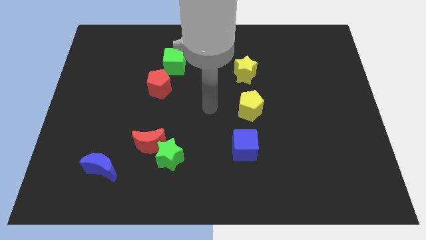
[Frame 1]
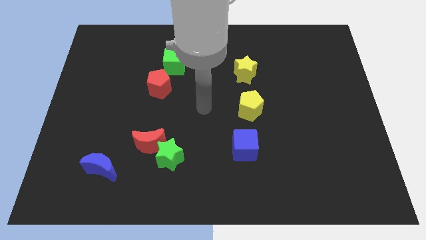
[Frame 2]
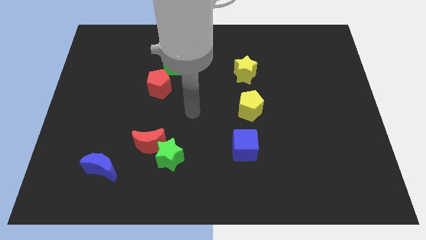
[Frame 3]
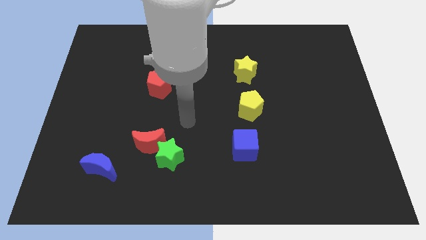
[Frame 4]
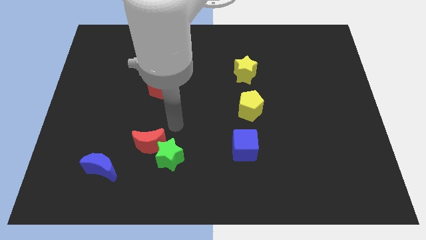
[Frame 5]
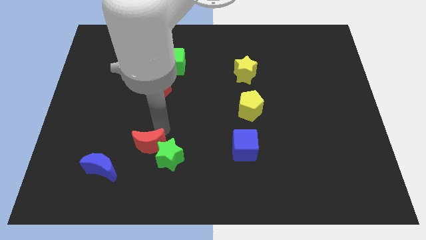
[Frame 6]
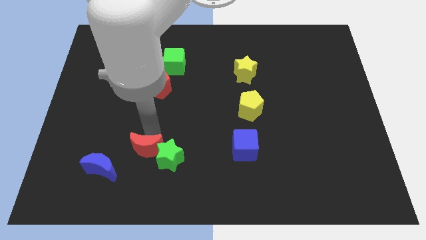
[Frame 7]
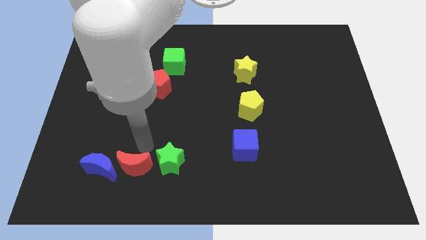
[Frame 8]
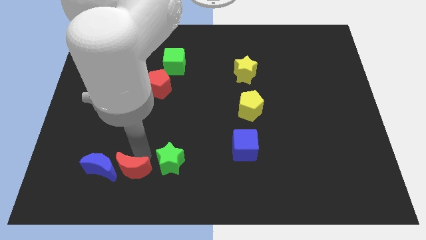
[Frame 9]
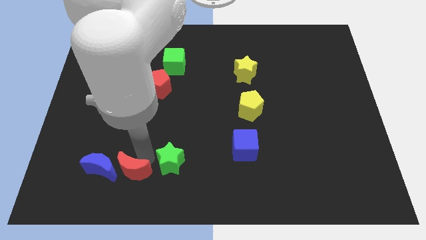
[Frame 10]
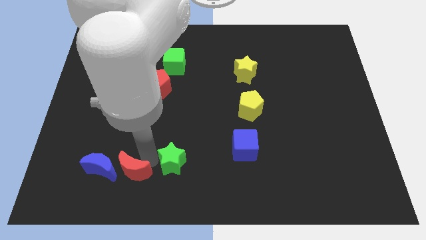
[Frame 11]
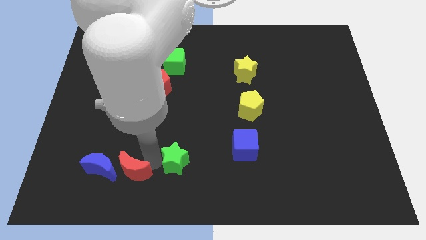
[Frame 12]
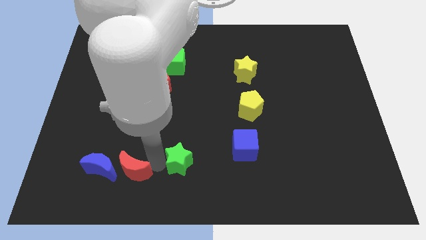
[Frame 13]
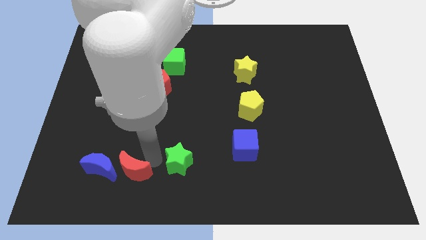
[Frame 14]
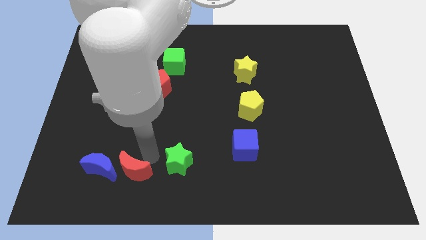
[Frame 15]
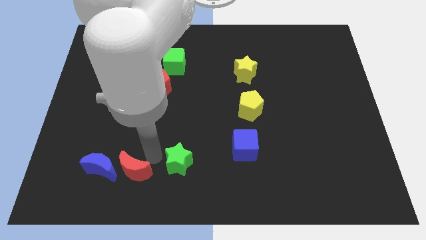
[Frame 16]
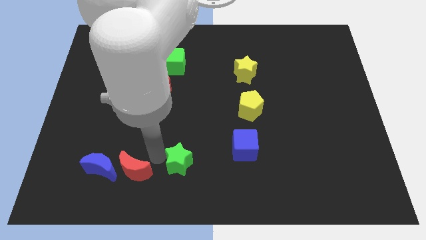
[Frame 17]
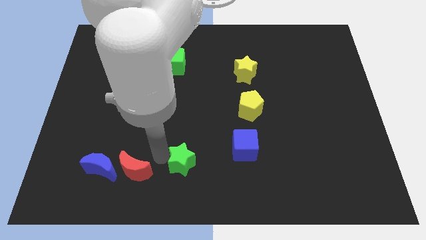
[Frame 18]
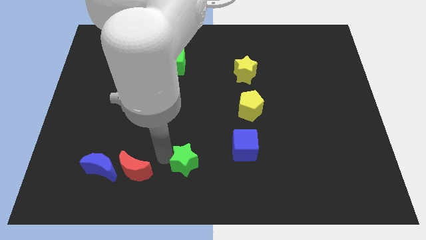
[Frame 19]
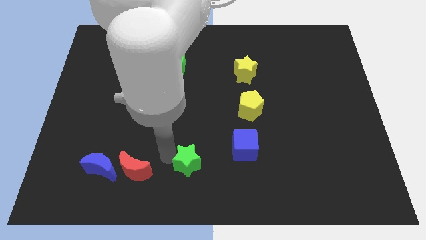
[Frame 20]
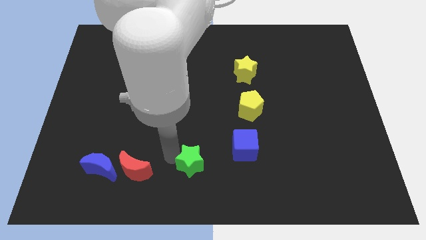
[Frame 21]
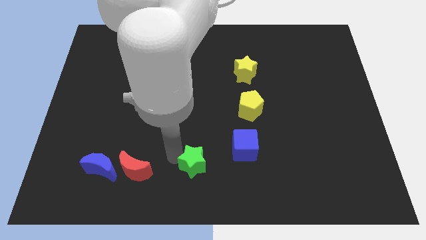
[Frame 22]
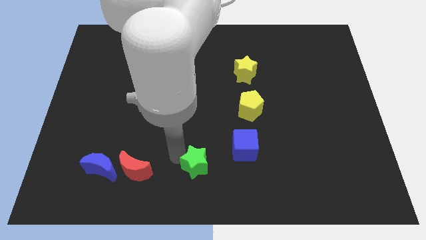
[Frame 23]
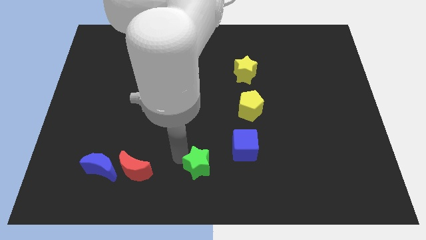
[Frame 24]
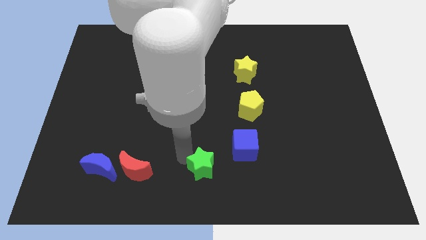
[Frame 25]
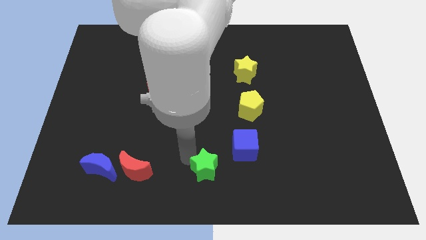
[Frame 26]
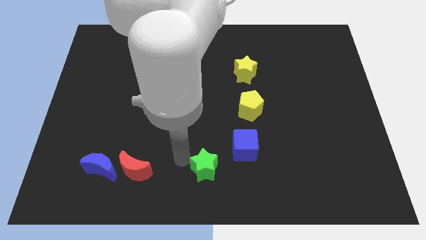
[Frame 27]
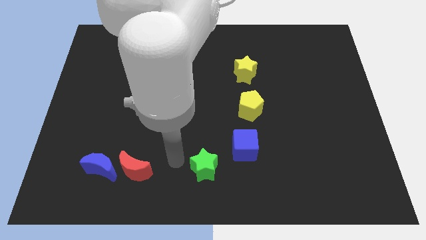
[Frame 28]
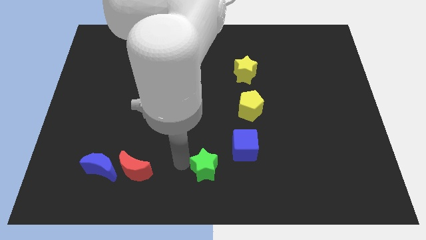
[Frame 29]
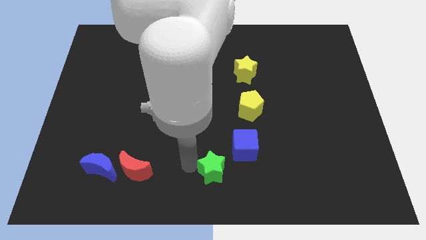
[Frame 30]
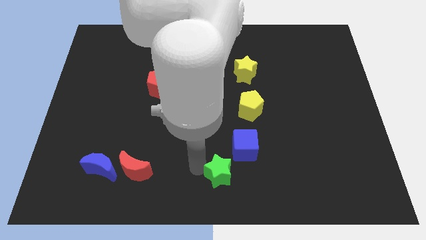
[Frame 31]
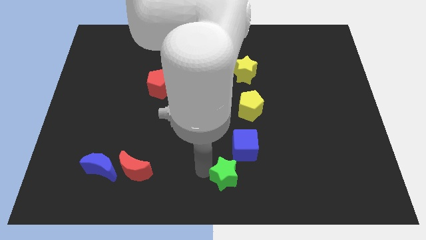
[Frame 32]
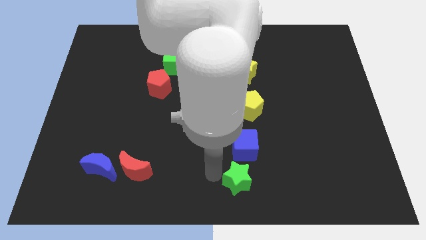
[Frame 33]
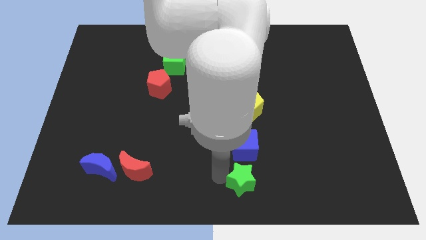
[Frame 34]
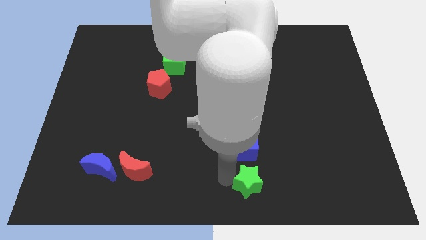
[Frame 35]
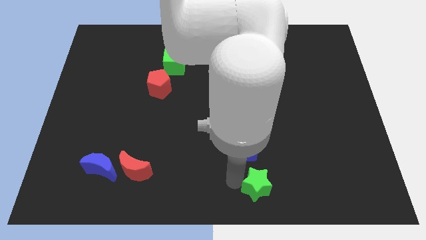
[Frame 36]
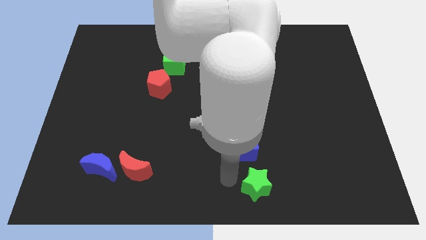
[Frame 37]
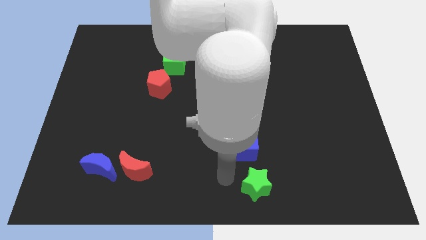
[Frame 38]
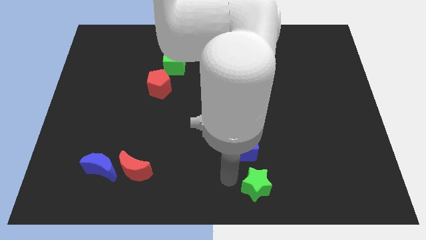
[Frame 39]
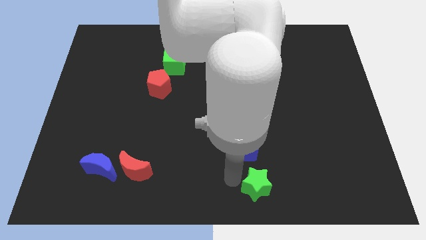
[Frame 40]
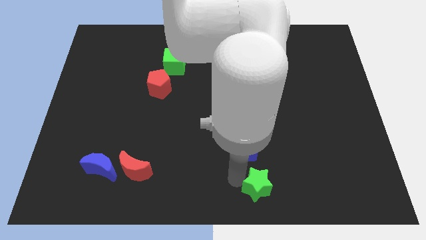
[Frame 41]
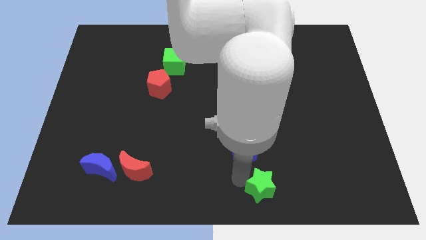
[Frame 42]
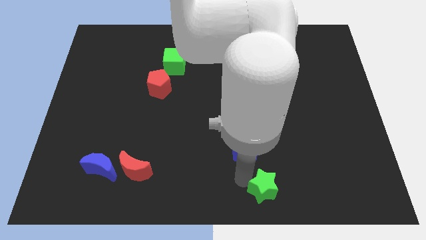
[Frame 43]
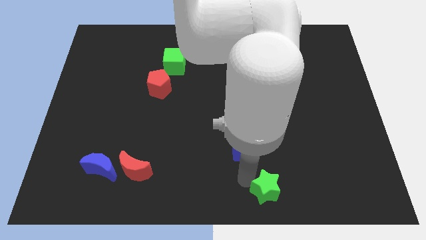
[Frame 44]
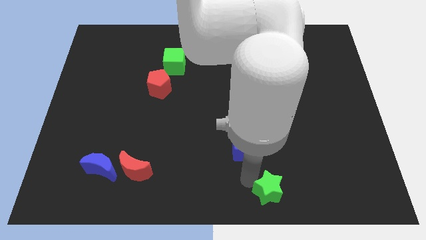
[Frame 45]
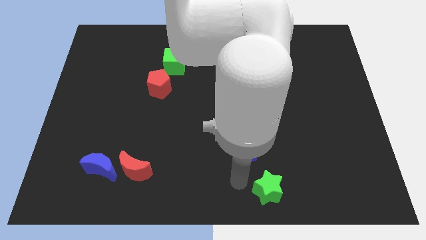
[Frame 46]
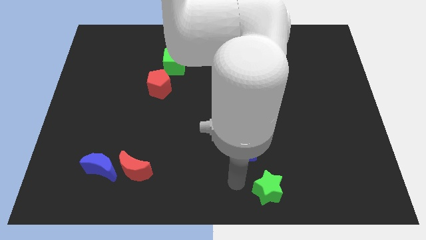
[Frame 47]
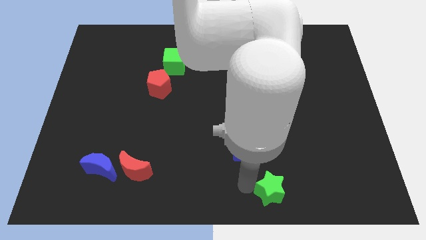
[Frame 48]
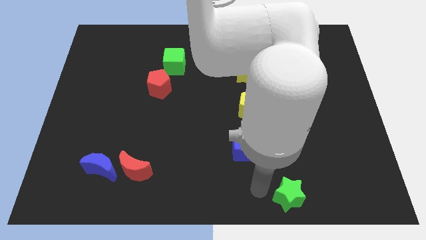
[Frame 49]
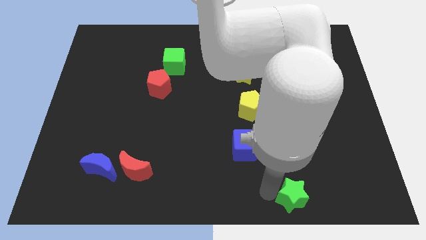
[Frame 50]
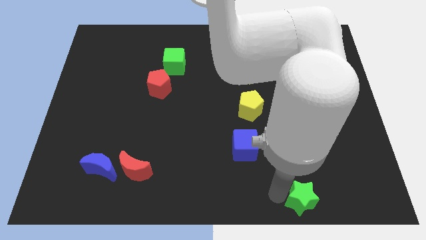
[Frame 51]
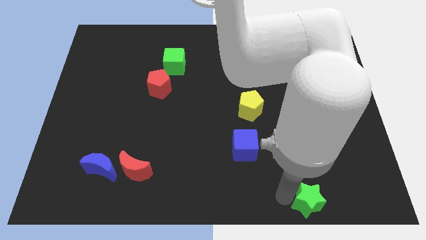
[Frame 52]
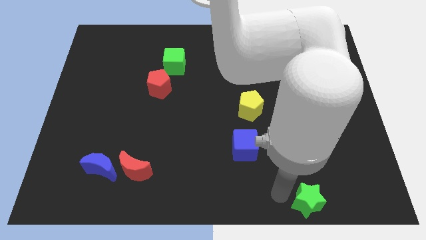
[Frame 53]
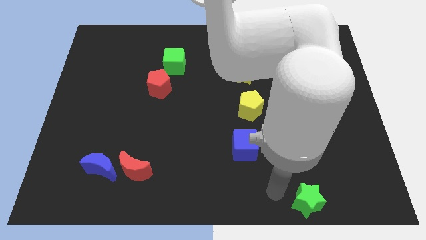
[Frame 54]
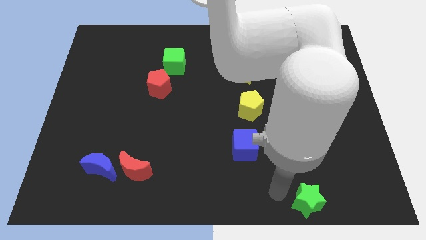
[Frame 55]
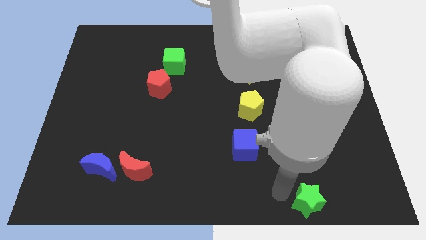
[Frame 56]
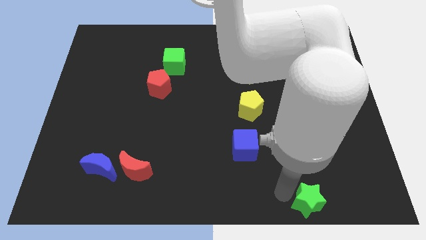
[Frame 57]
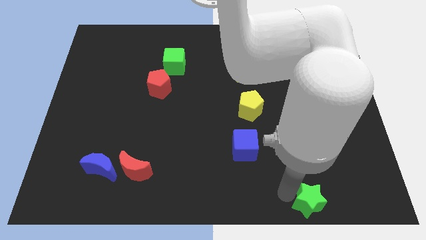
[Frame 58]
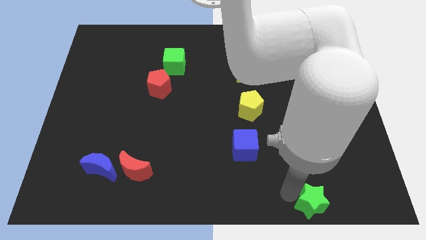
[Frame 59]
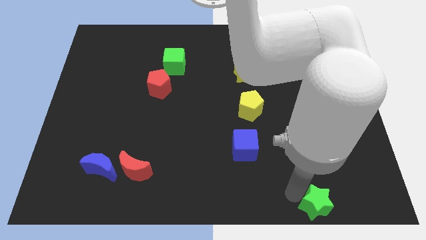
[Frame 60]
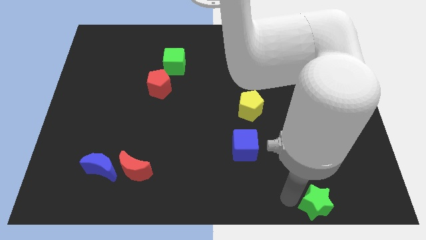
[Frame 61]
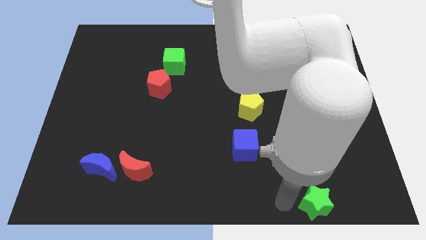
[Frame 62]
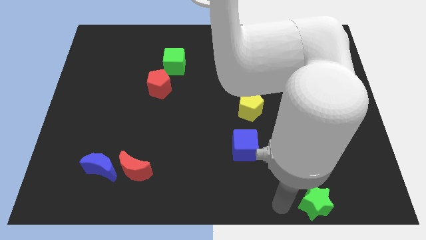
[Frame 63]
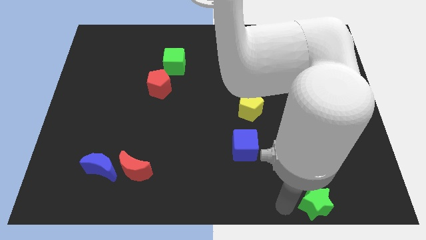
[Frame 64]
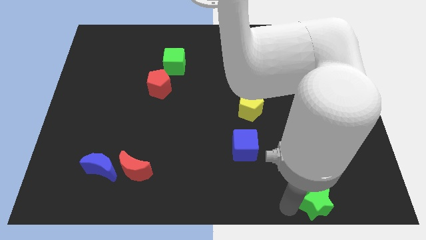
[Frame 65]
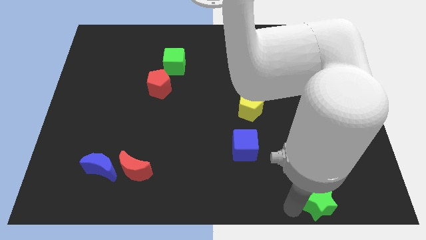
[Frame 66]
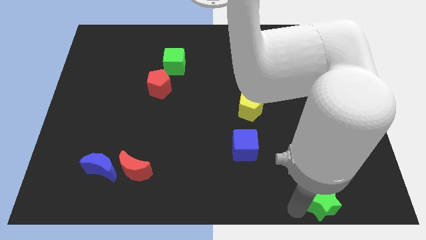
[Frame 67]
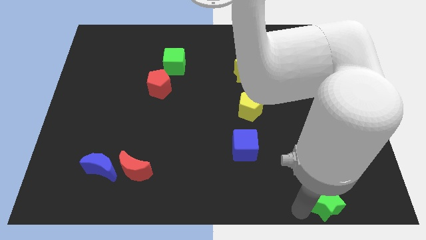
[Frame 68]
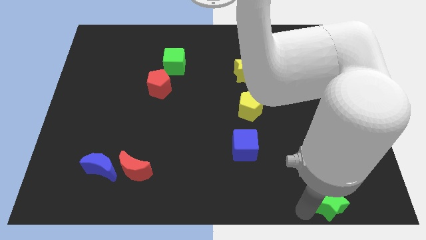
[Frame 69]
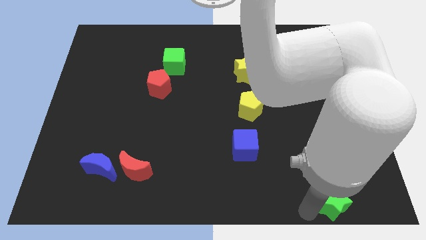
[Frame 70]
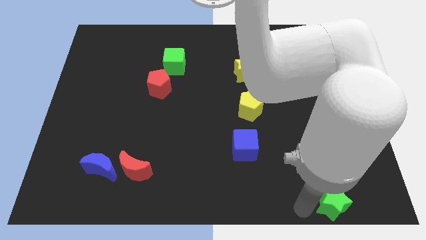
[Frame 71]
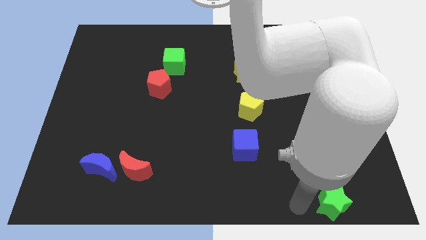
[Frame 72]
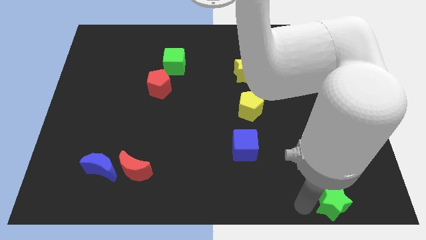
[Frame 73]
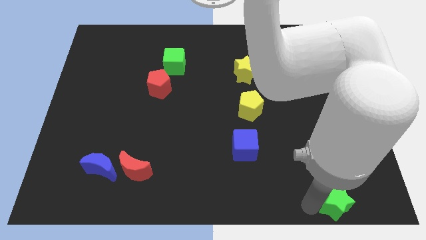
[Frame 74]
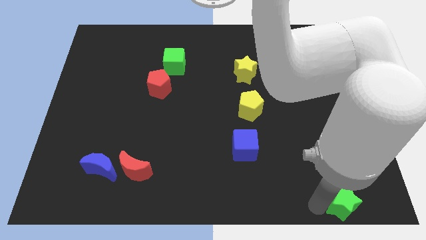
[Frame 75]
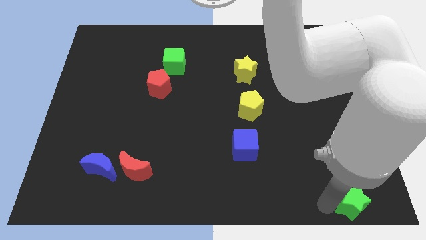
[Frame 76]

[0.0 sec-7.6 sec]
put the green star to the bottom right corner
